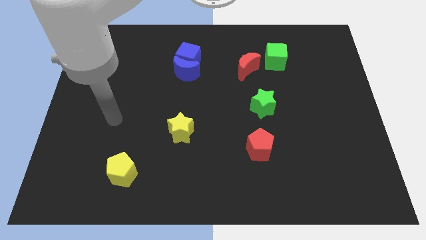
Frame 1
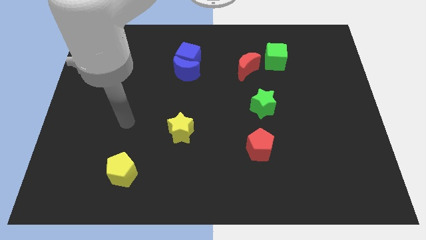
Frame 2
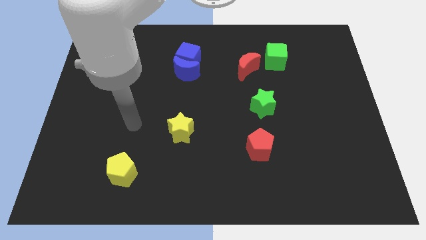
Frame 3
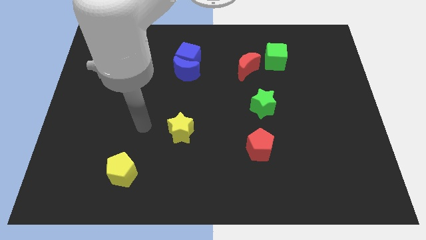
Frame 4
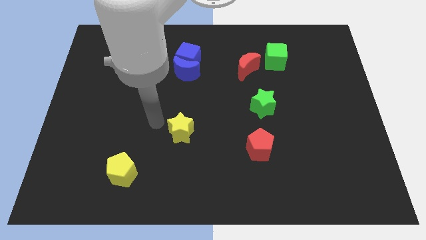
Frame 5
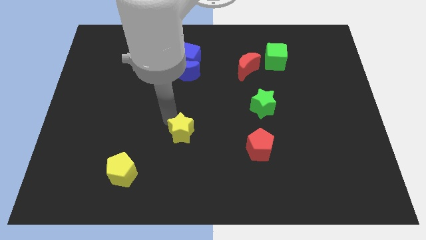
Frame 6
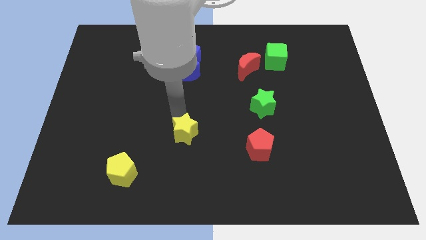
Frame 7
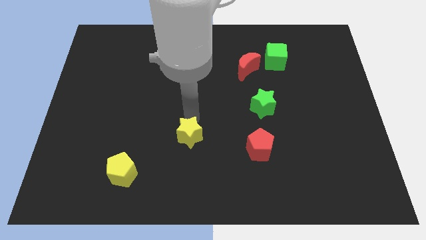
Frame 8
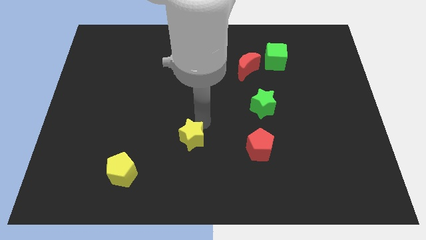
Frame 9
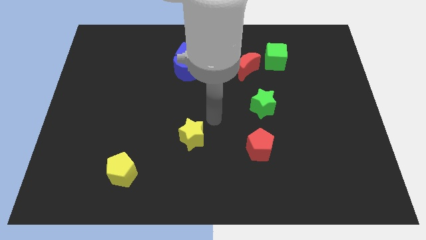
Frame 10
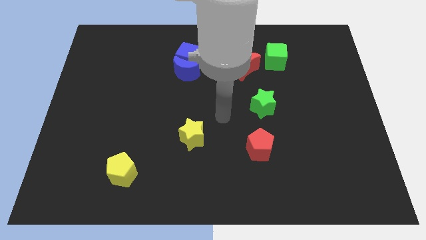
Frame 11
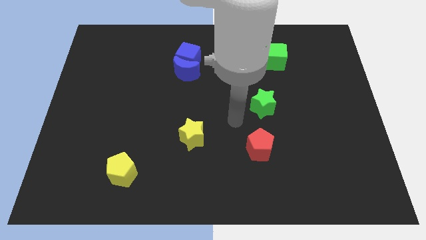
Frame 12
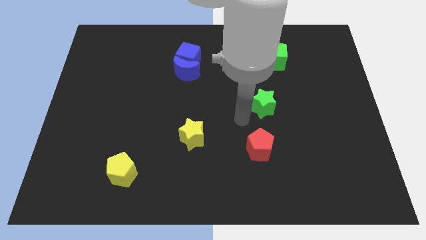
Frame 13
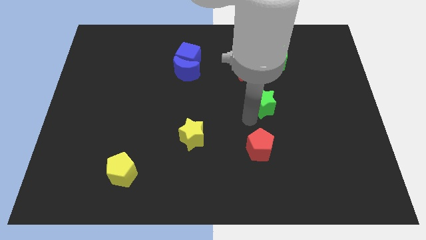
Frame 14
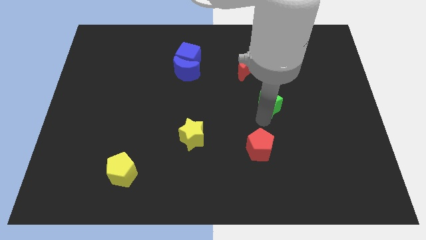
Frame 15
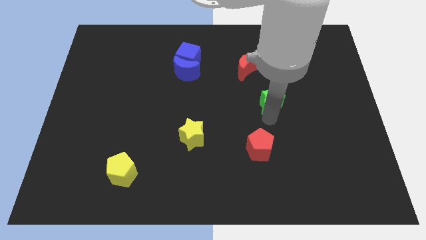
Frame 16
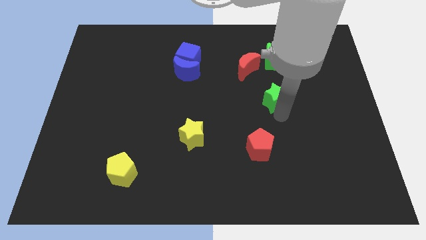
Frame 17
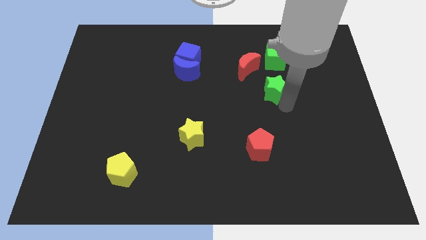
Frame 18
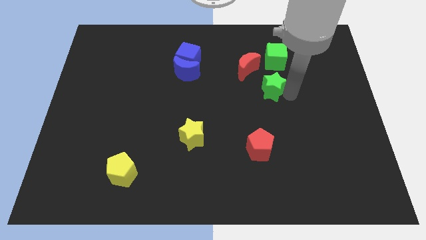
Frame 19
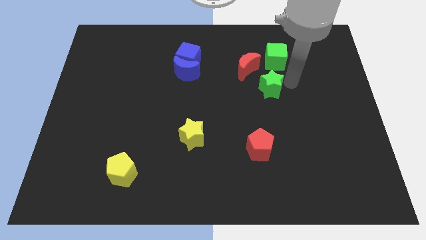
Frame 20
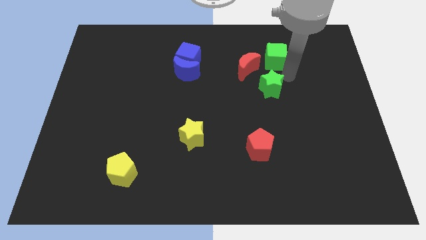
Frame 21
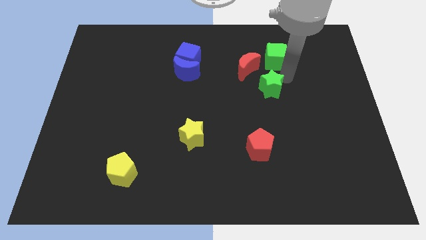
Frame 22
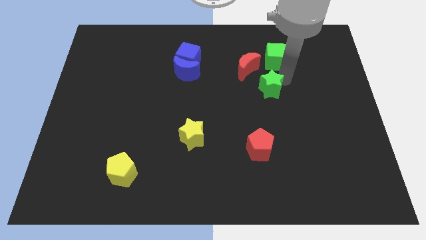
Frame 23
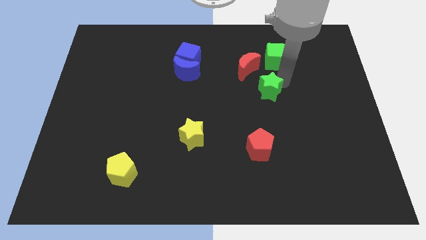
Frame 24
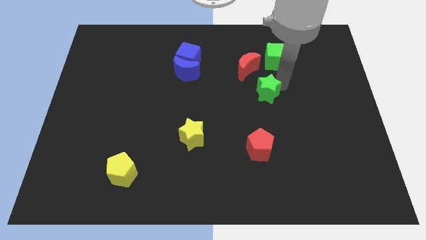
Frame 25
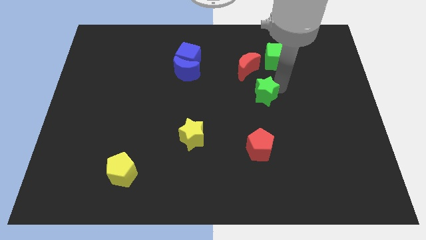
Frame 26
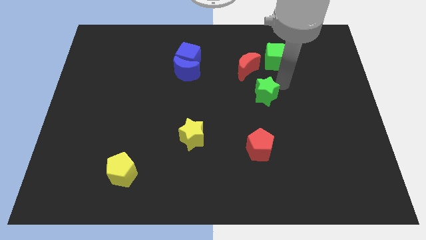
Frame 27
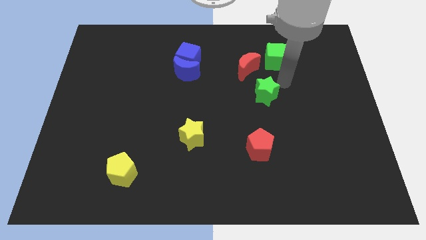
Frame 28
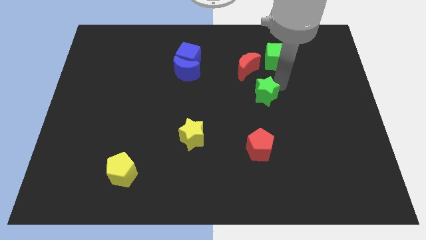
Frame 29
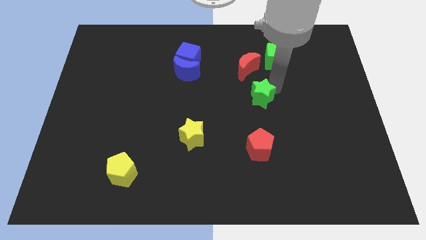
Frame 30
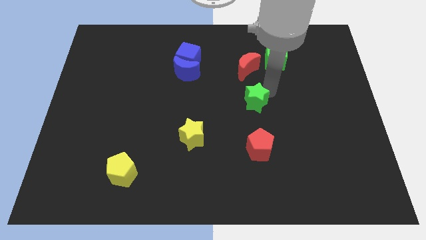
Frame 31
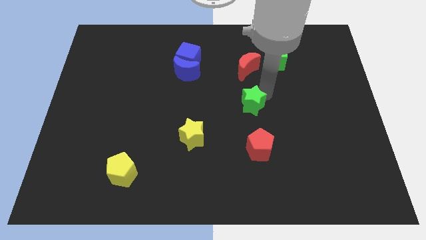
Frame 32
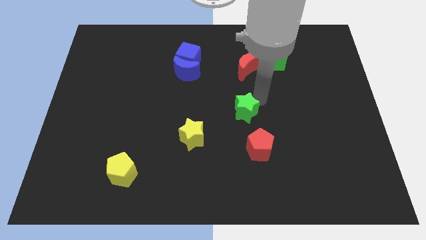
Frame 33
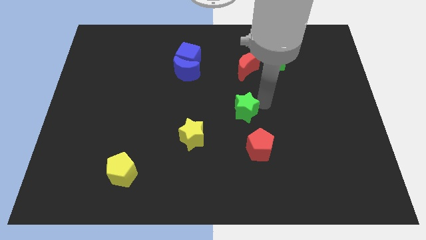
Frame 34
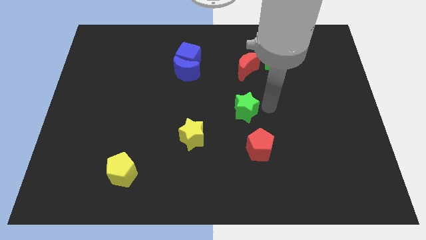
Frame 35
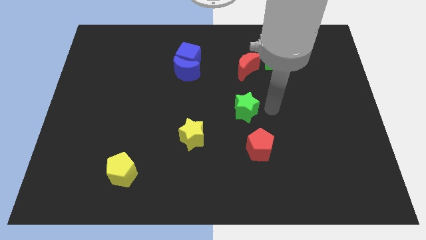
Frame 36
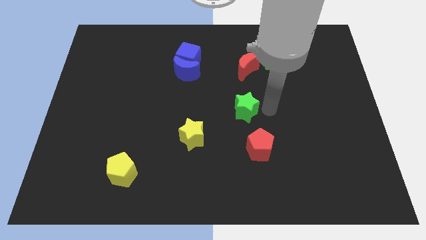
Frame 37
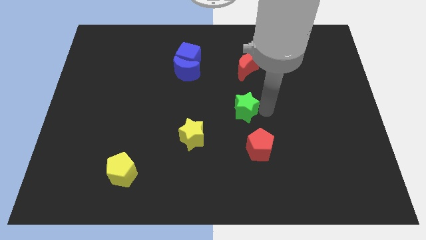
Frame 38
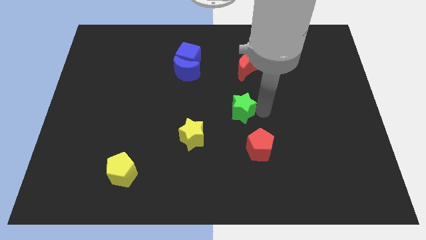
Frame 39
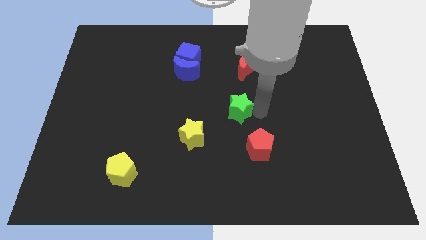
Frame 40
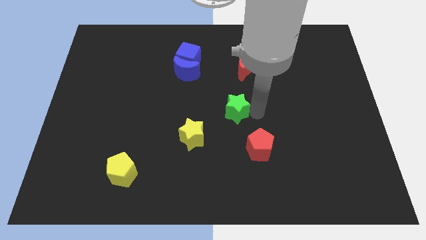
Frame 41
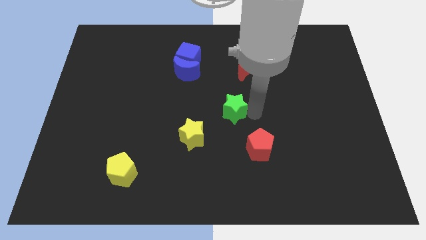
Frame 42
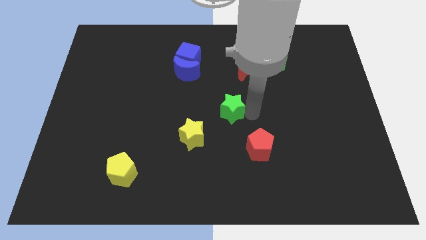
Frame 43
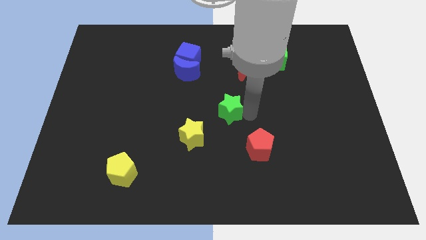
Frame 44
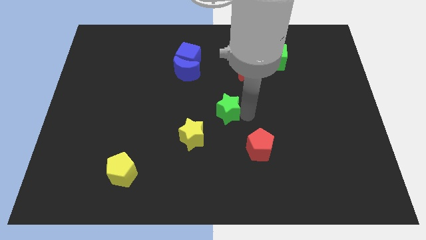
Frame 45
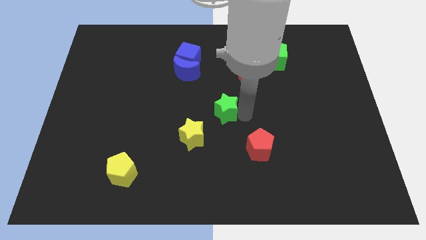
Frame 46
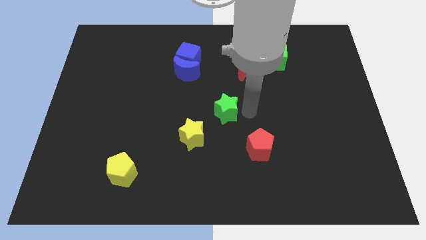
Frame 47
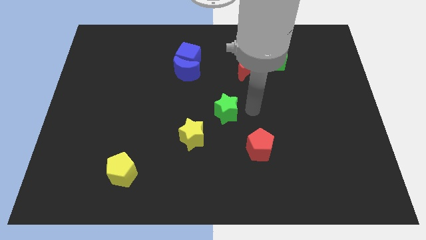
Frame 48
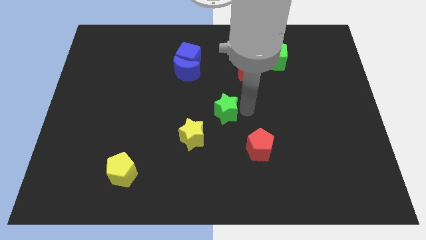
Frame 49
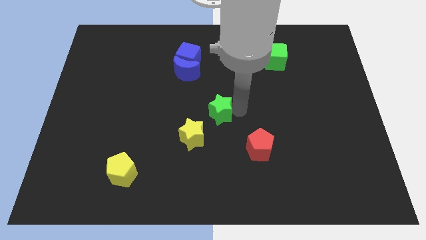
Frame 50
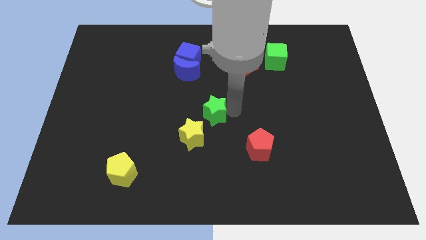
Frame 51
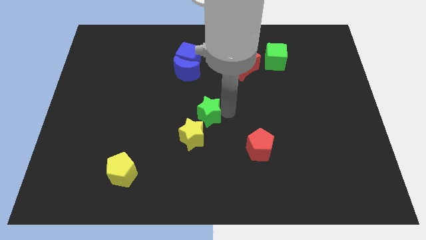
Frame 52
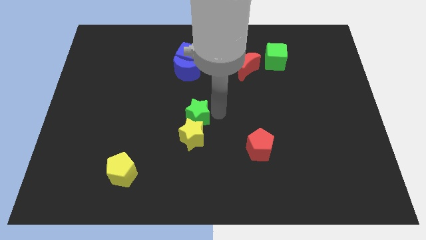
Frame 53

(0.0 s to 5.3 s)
push the green star diagonally up and to the left of the yellow star

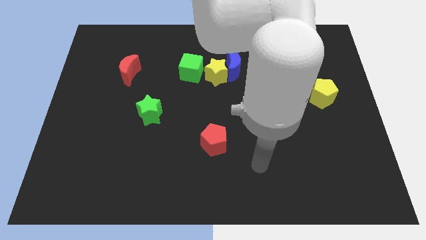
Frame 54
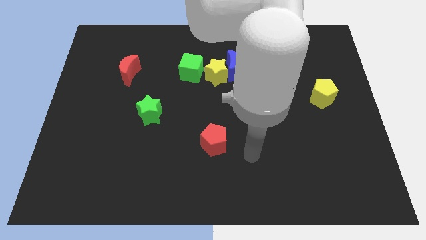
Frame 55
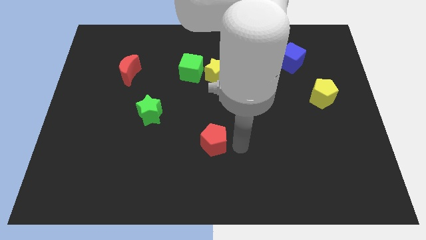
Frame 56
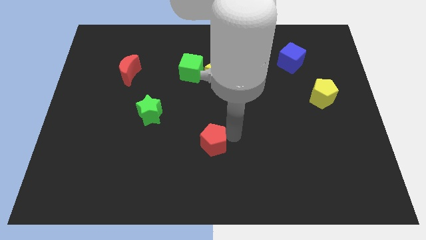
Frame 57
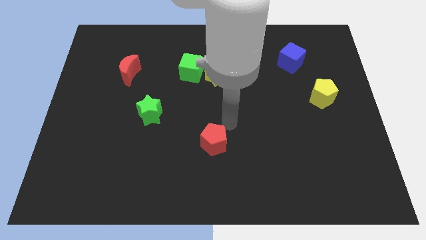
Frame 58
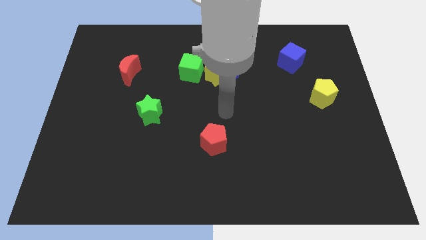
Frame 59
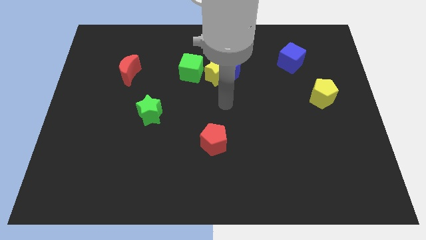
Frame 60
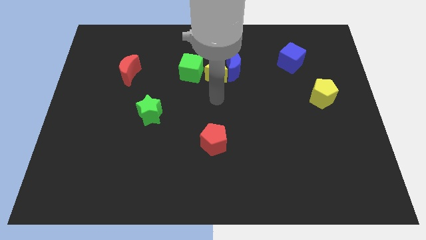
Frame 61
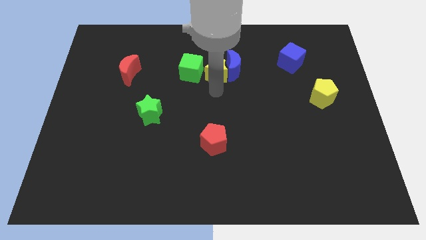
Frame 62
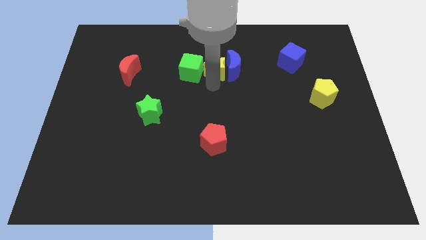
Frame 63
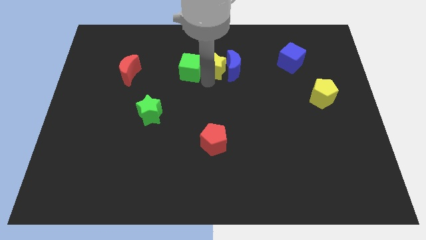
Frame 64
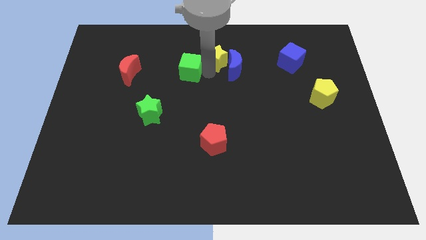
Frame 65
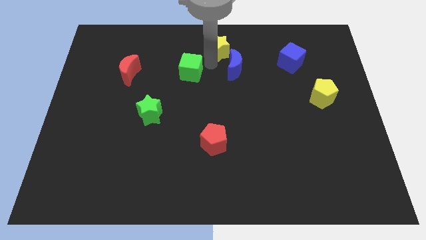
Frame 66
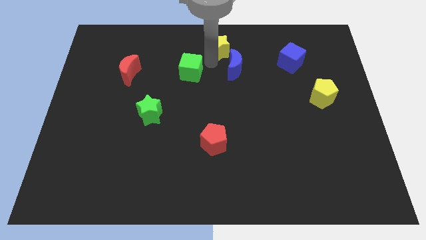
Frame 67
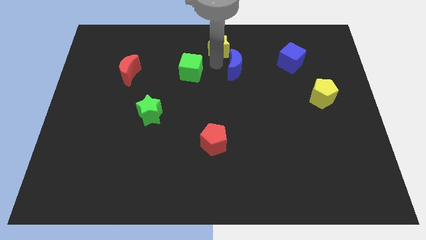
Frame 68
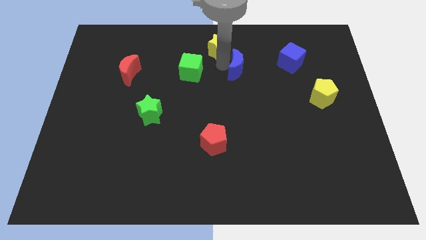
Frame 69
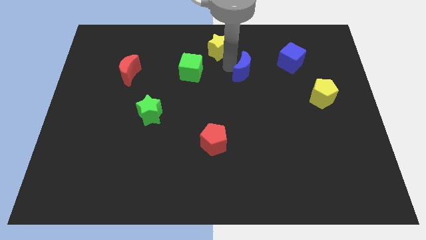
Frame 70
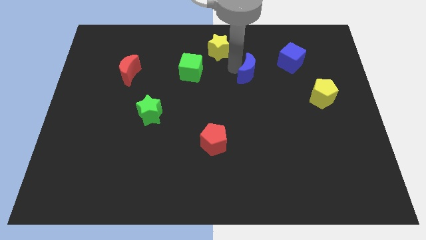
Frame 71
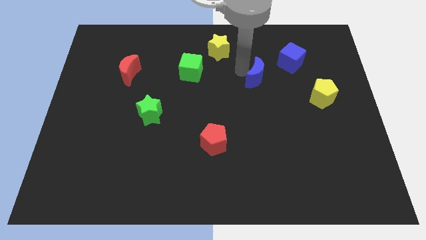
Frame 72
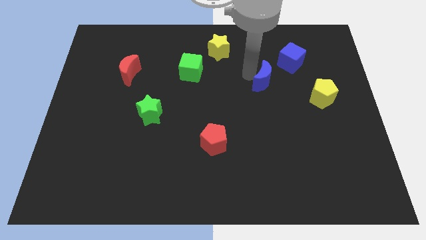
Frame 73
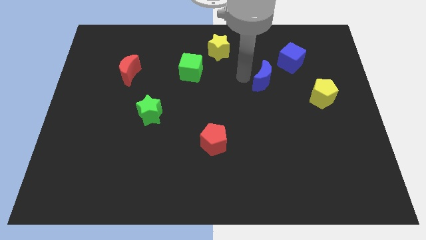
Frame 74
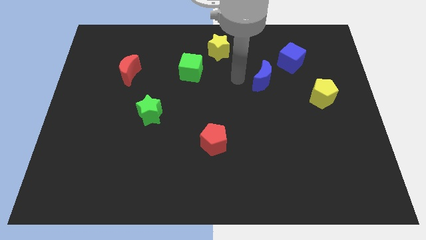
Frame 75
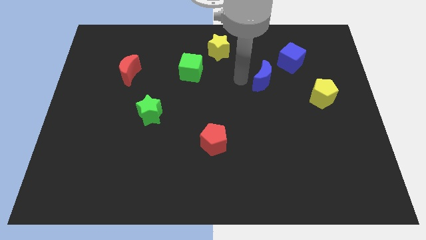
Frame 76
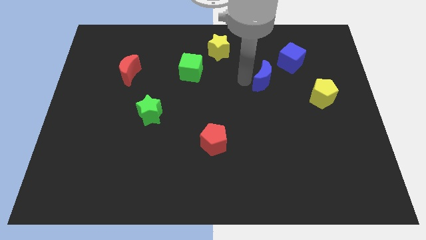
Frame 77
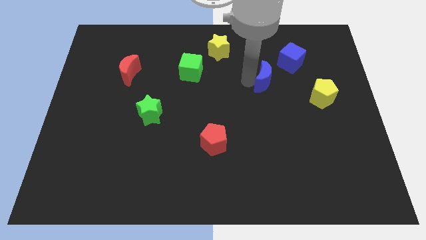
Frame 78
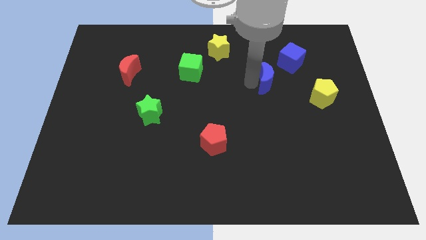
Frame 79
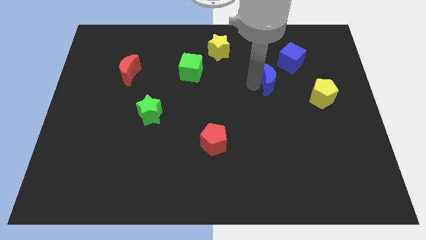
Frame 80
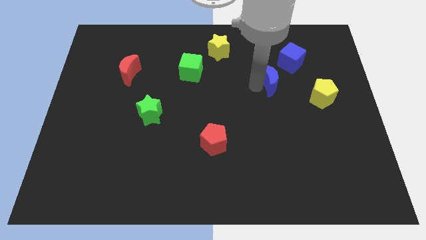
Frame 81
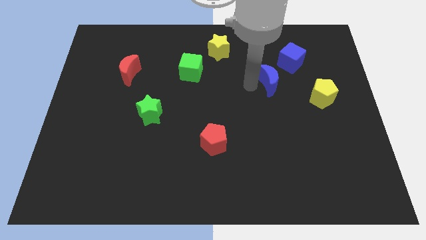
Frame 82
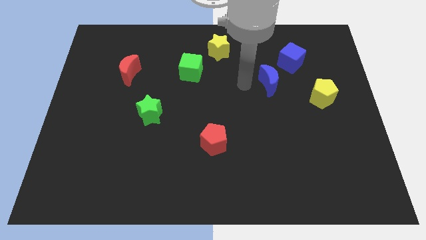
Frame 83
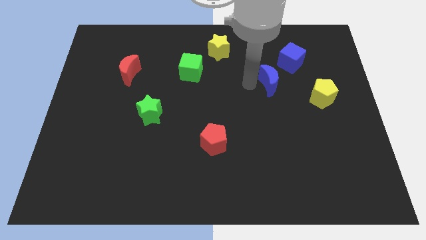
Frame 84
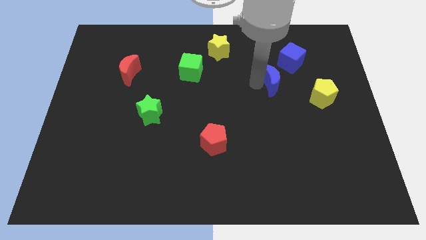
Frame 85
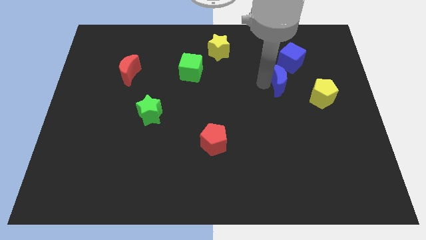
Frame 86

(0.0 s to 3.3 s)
move the blue moon to the top left of the yellow pentagon
